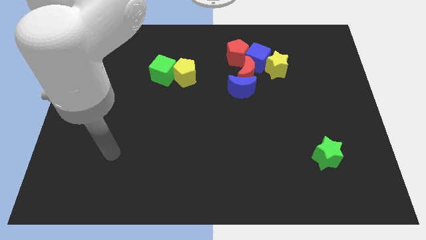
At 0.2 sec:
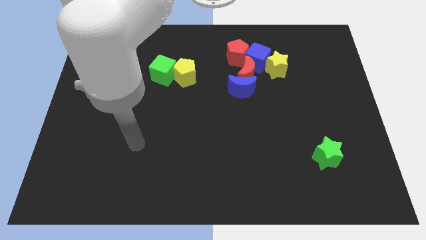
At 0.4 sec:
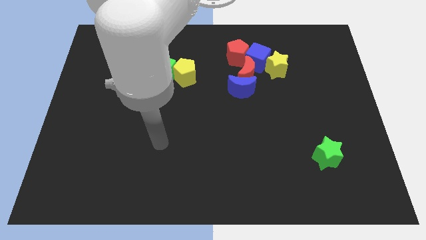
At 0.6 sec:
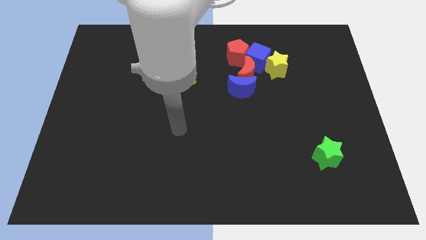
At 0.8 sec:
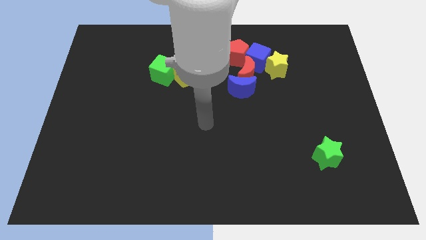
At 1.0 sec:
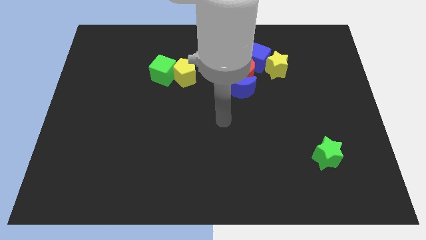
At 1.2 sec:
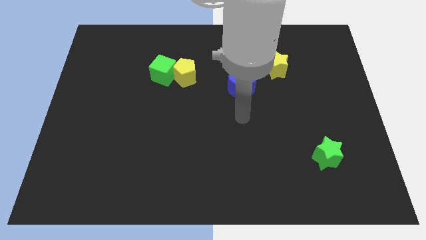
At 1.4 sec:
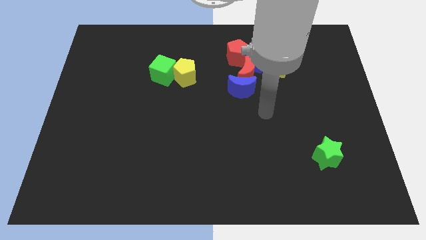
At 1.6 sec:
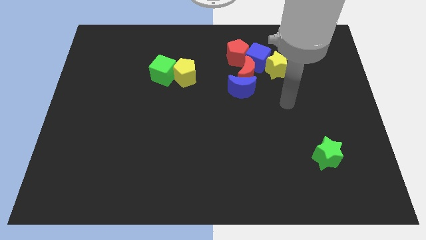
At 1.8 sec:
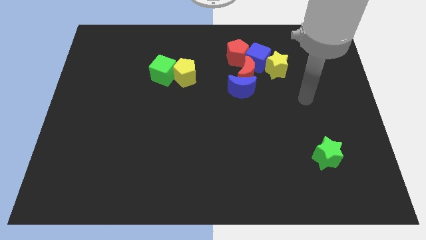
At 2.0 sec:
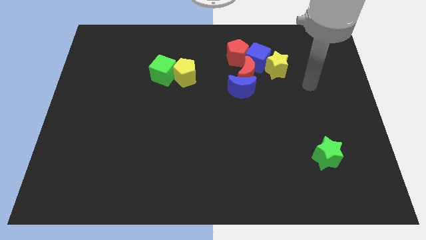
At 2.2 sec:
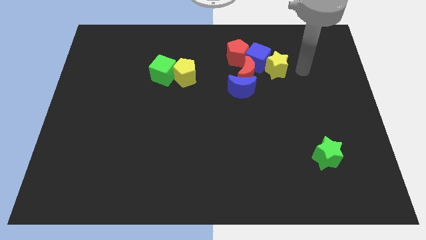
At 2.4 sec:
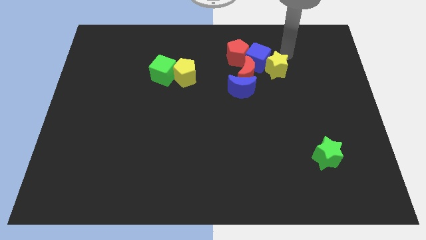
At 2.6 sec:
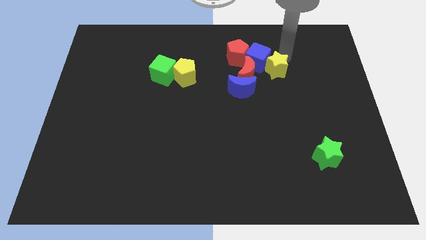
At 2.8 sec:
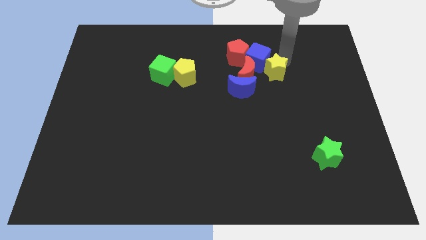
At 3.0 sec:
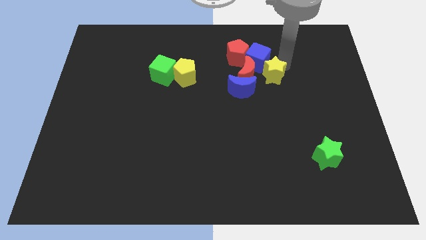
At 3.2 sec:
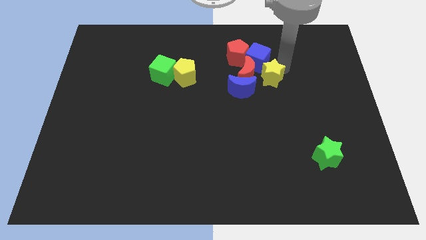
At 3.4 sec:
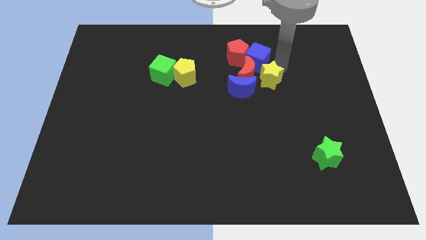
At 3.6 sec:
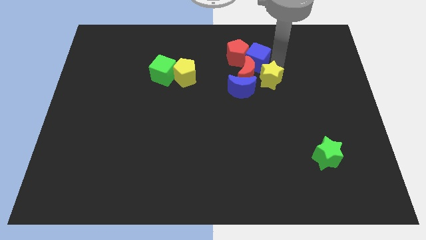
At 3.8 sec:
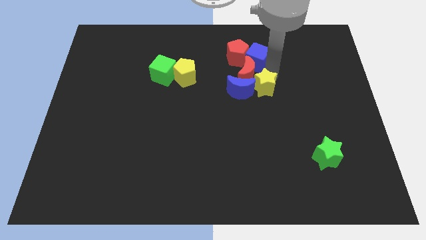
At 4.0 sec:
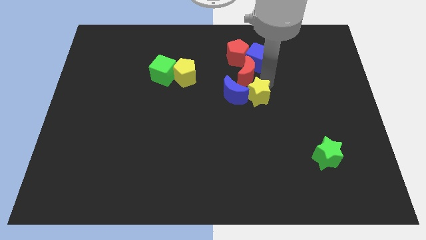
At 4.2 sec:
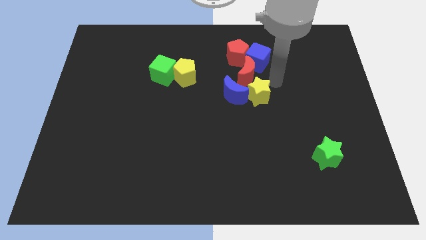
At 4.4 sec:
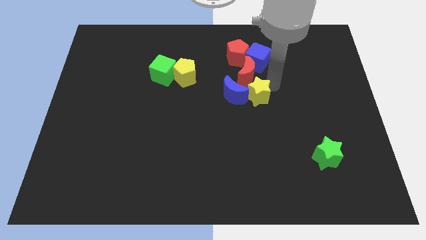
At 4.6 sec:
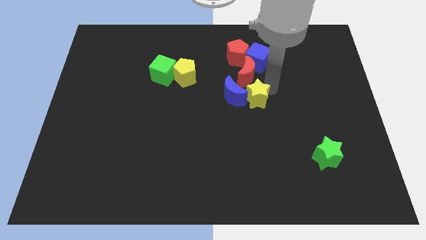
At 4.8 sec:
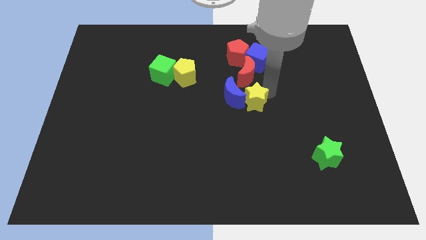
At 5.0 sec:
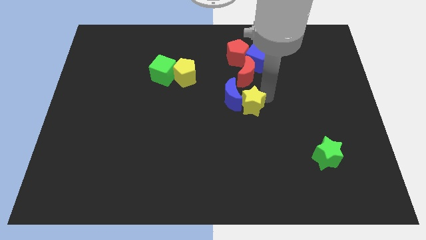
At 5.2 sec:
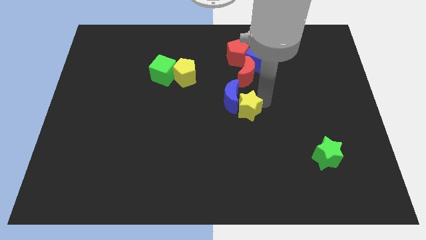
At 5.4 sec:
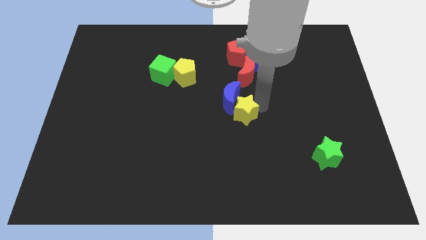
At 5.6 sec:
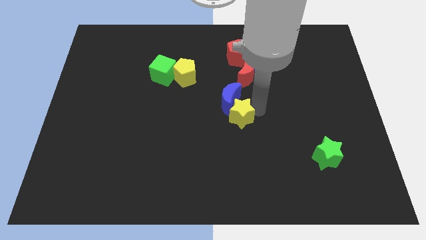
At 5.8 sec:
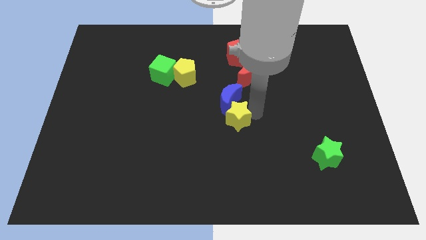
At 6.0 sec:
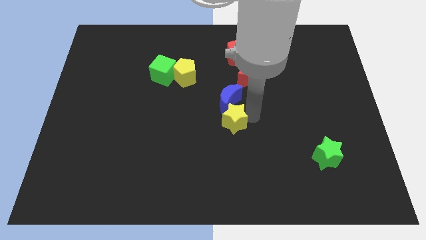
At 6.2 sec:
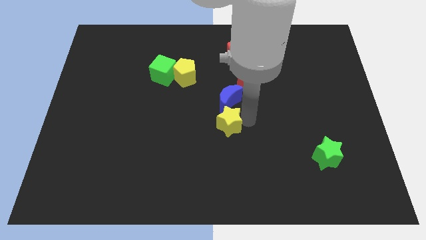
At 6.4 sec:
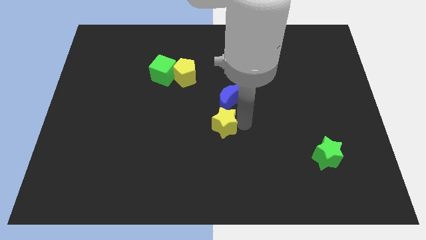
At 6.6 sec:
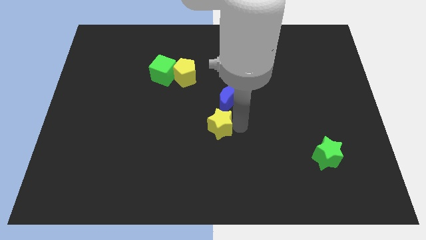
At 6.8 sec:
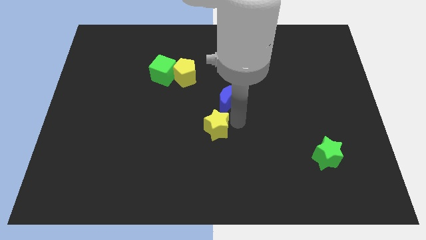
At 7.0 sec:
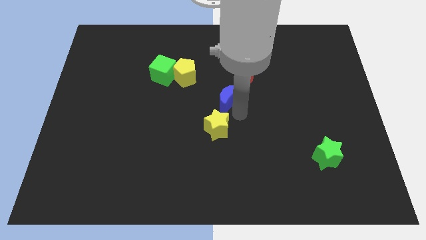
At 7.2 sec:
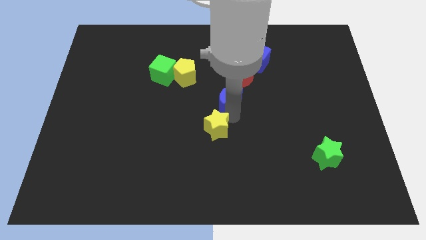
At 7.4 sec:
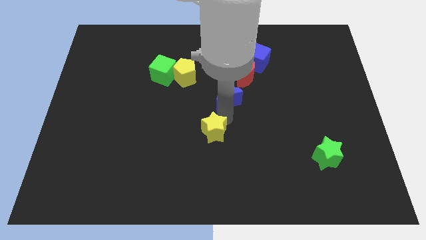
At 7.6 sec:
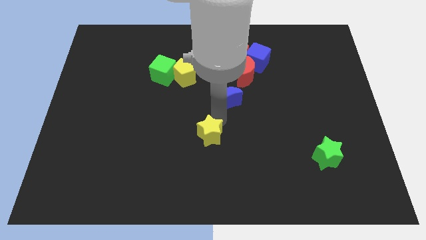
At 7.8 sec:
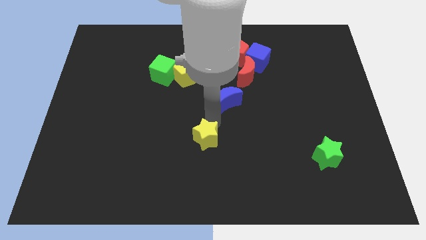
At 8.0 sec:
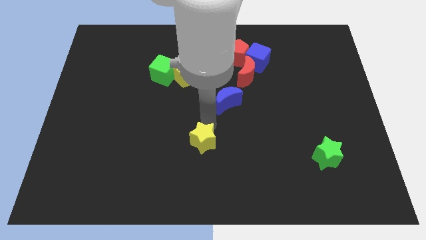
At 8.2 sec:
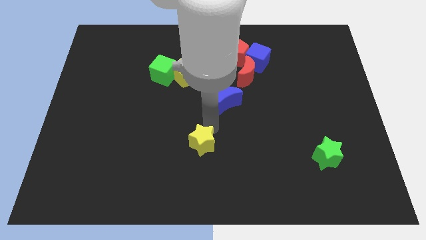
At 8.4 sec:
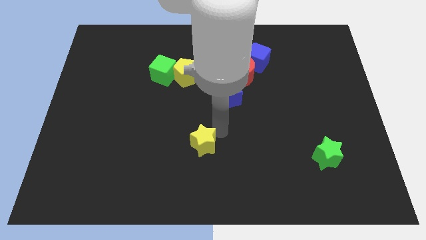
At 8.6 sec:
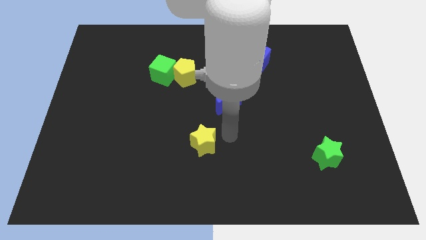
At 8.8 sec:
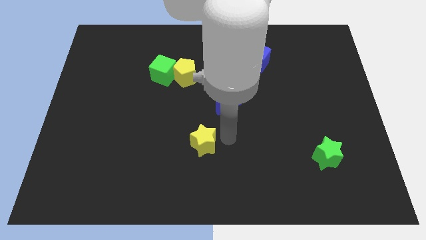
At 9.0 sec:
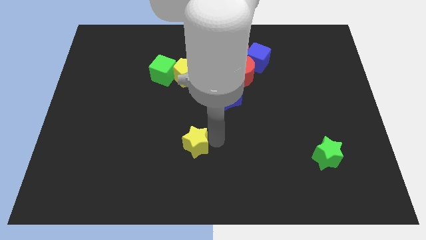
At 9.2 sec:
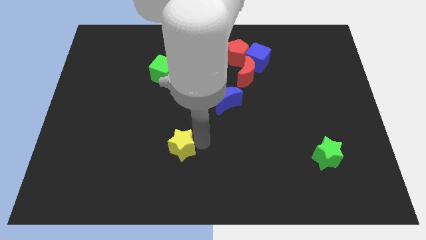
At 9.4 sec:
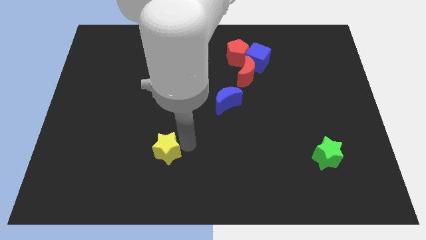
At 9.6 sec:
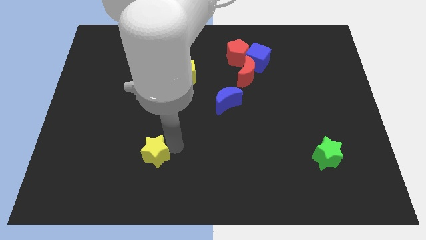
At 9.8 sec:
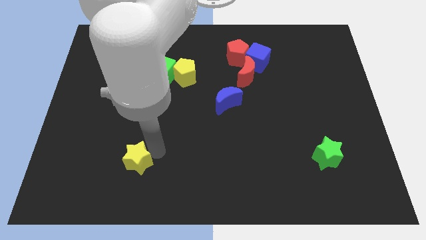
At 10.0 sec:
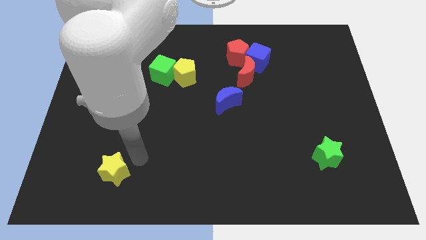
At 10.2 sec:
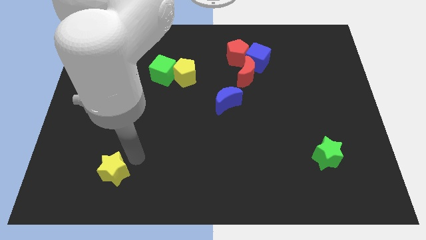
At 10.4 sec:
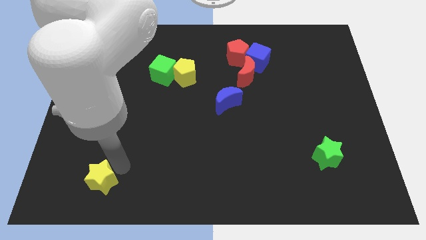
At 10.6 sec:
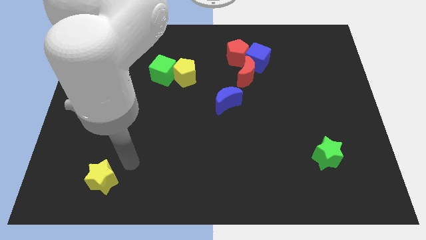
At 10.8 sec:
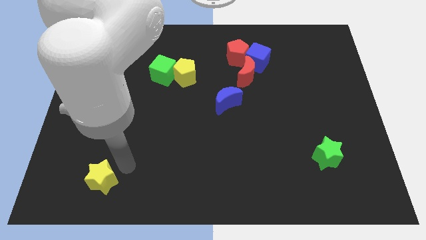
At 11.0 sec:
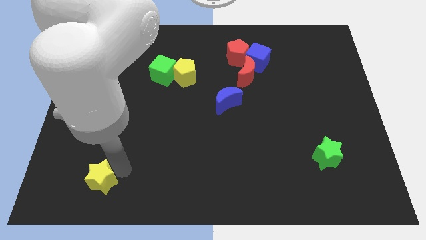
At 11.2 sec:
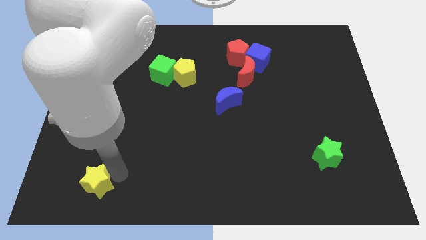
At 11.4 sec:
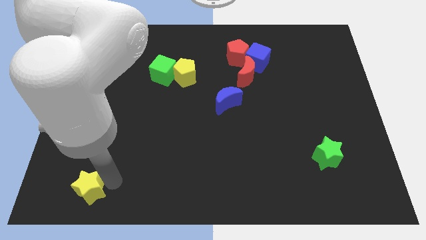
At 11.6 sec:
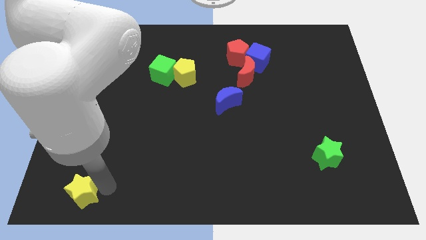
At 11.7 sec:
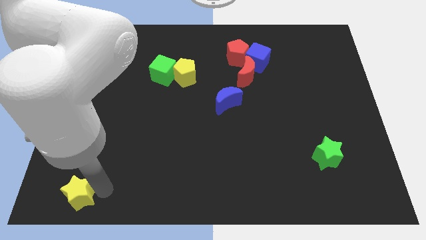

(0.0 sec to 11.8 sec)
move the yellow star to the bottom left of the board
